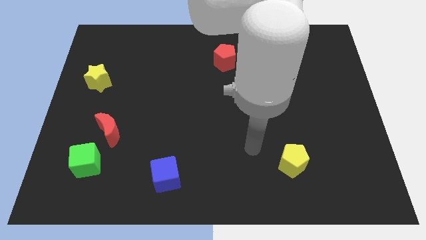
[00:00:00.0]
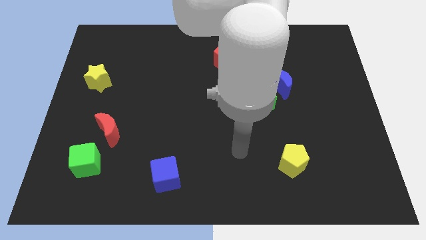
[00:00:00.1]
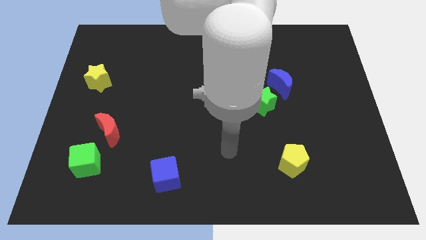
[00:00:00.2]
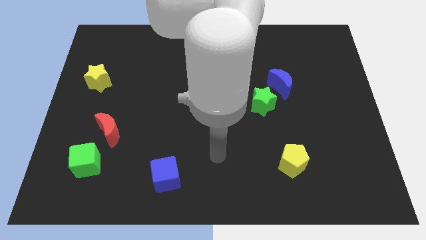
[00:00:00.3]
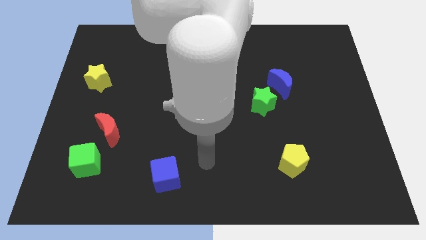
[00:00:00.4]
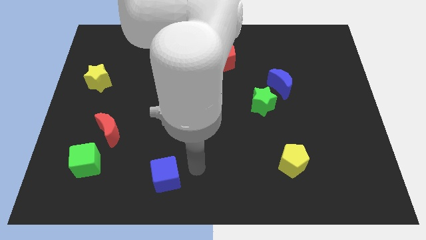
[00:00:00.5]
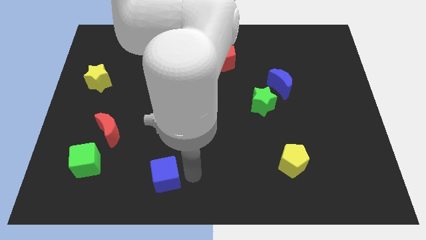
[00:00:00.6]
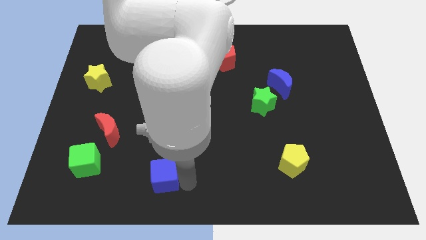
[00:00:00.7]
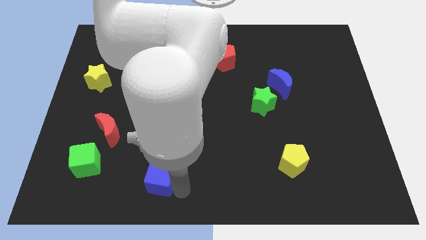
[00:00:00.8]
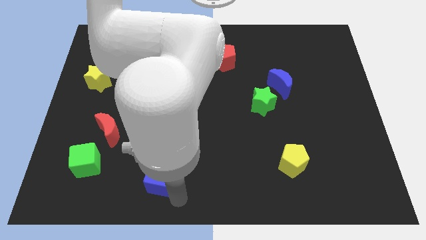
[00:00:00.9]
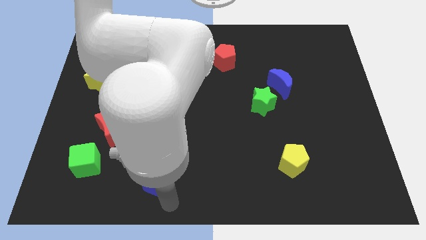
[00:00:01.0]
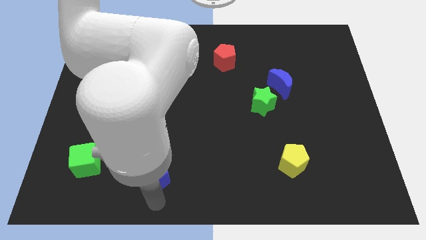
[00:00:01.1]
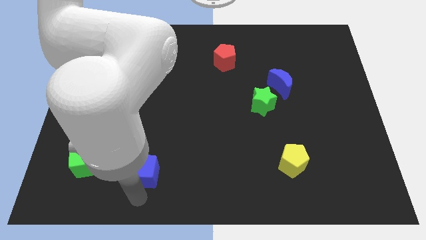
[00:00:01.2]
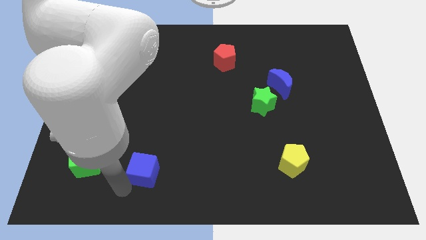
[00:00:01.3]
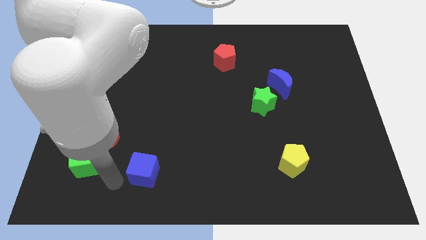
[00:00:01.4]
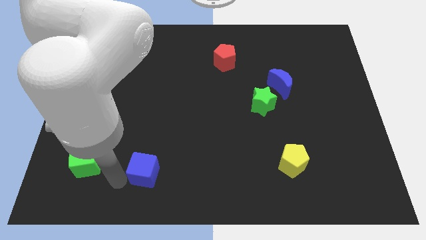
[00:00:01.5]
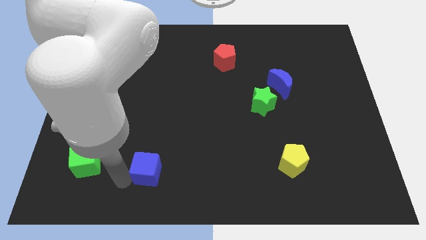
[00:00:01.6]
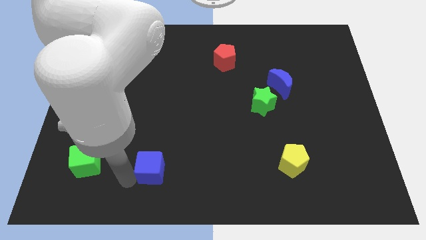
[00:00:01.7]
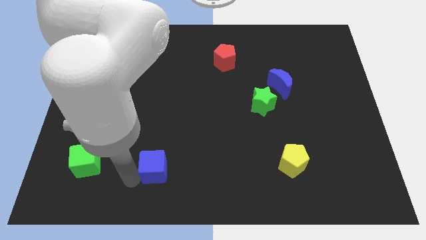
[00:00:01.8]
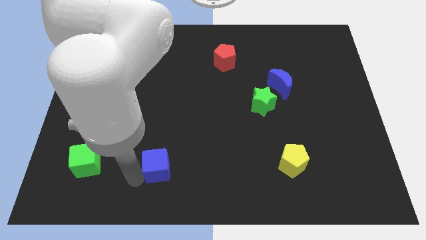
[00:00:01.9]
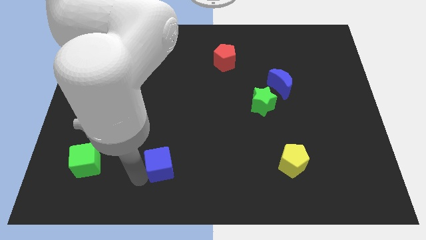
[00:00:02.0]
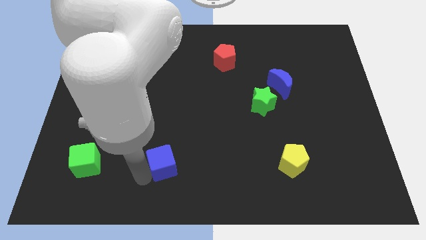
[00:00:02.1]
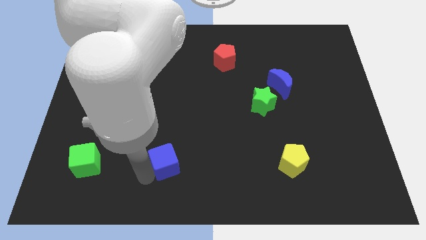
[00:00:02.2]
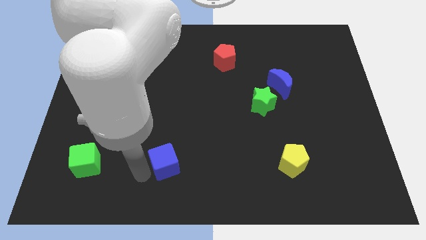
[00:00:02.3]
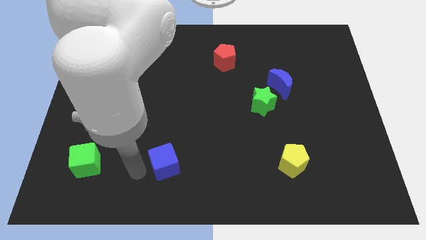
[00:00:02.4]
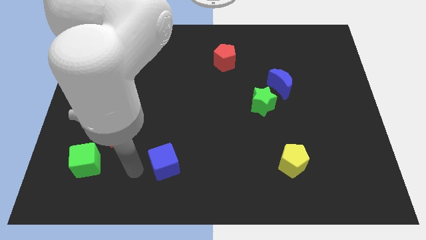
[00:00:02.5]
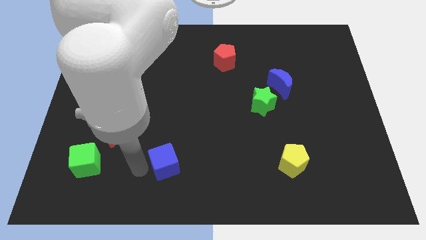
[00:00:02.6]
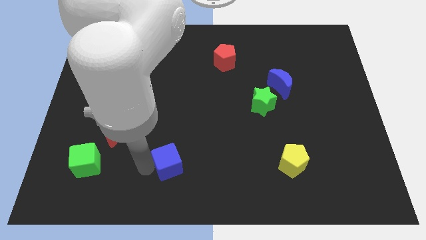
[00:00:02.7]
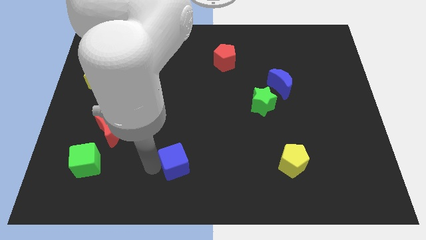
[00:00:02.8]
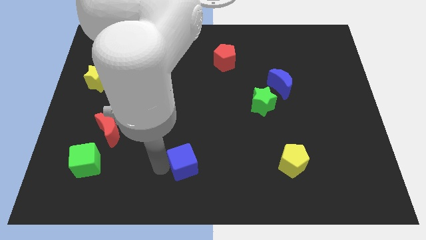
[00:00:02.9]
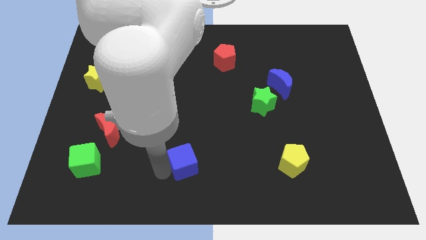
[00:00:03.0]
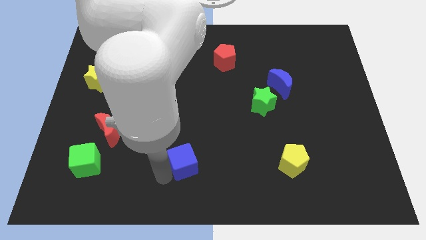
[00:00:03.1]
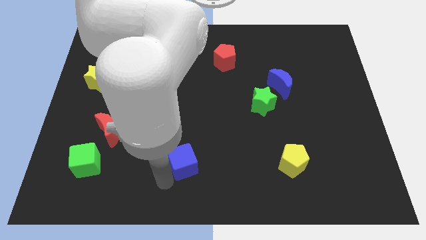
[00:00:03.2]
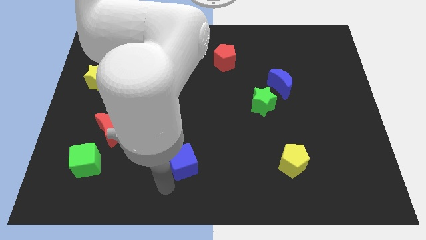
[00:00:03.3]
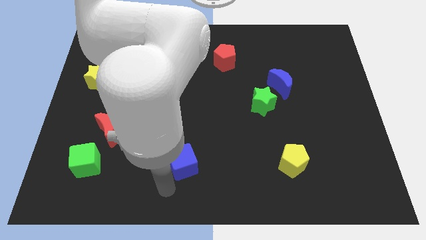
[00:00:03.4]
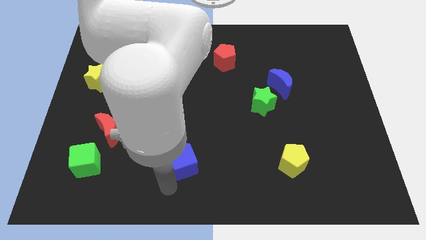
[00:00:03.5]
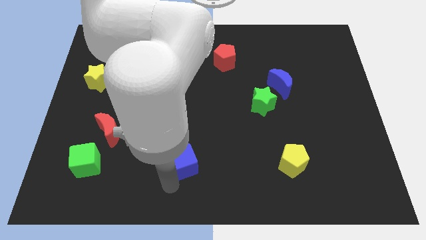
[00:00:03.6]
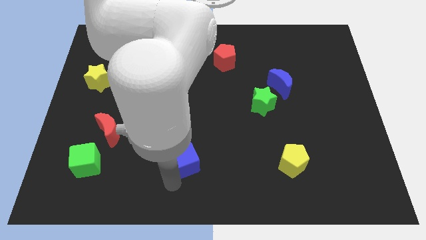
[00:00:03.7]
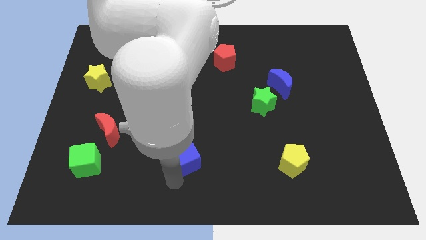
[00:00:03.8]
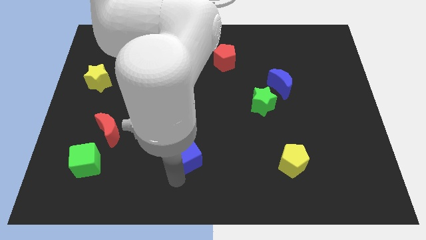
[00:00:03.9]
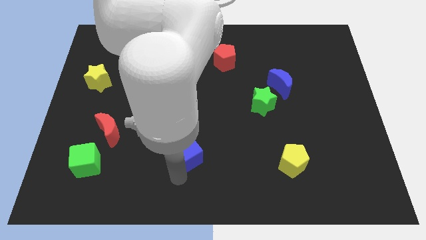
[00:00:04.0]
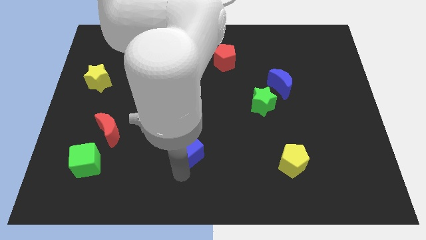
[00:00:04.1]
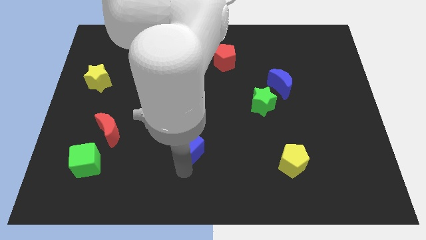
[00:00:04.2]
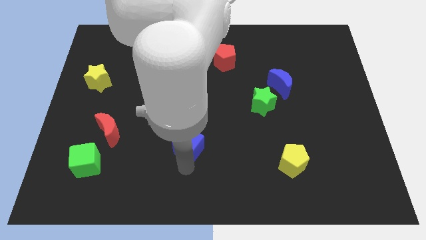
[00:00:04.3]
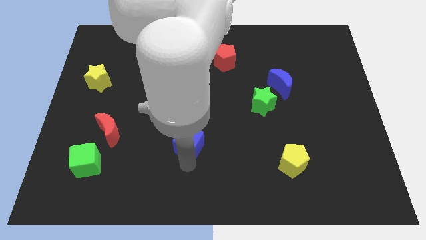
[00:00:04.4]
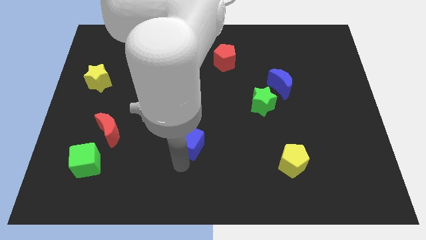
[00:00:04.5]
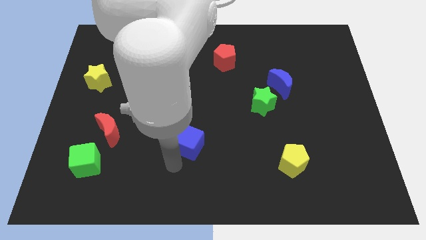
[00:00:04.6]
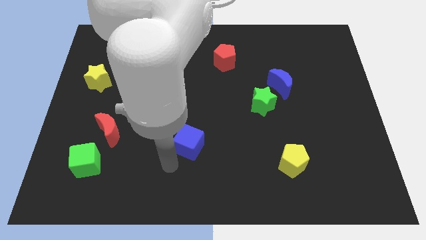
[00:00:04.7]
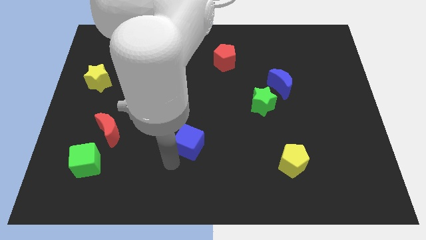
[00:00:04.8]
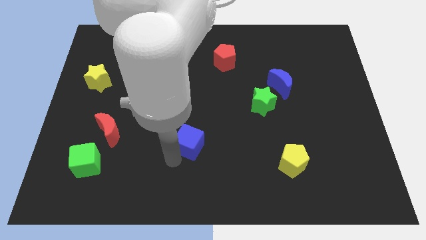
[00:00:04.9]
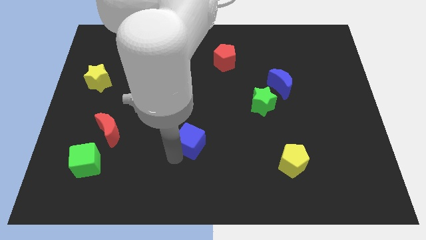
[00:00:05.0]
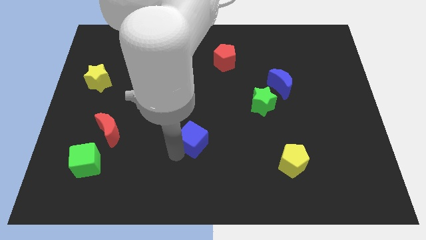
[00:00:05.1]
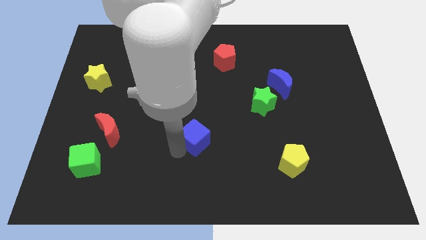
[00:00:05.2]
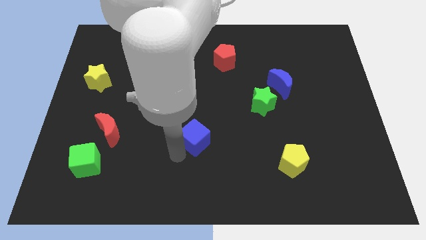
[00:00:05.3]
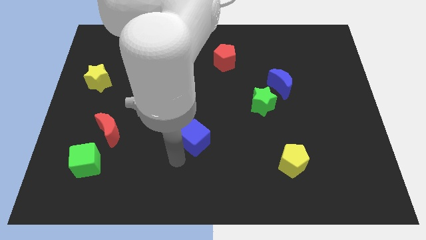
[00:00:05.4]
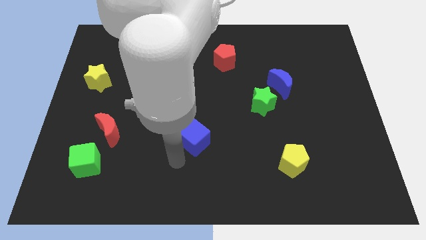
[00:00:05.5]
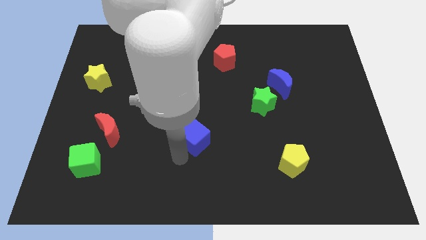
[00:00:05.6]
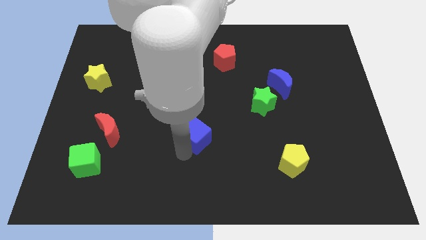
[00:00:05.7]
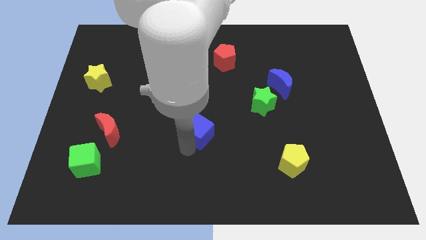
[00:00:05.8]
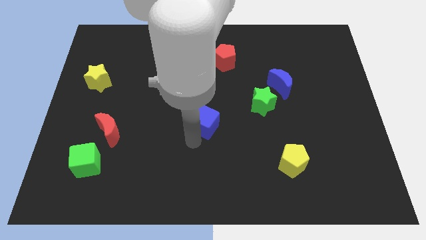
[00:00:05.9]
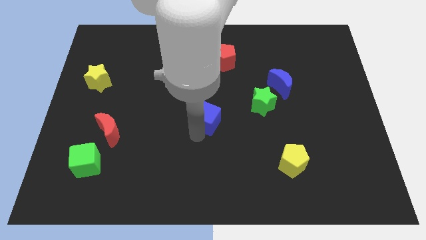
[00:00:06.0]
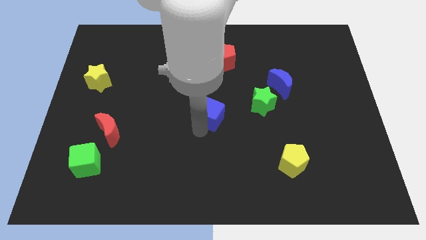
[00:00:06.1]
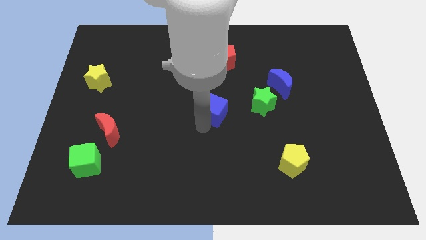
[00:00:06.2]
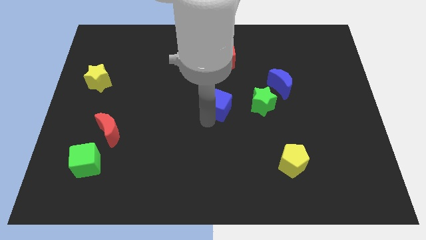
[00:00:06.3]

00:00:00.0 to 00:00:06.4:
push the blue cube to the bottom of the red pentagon
